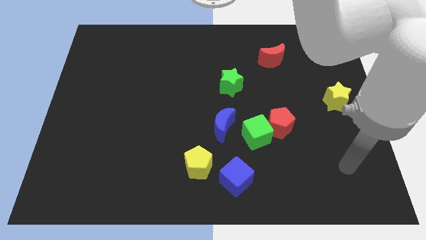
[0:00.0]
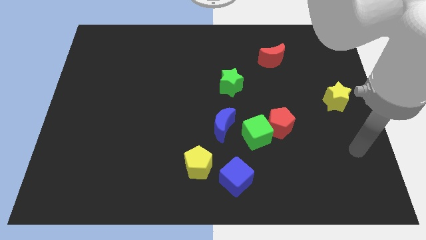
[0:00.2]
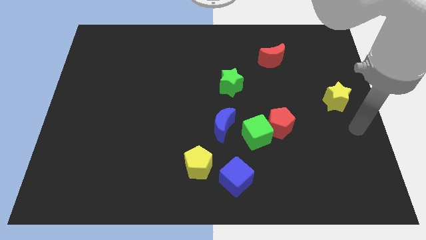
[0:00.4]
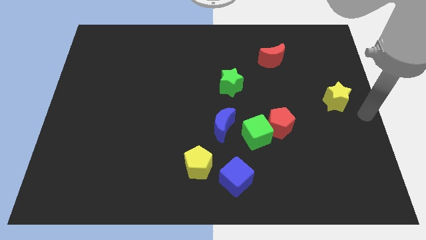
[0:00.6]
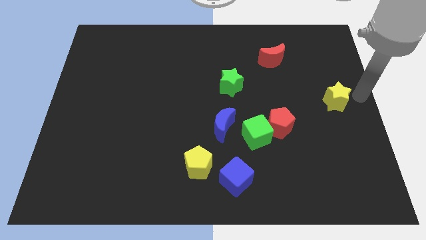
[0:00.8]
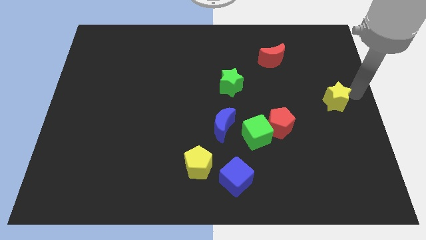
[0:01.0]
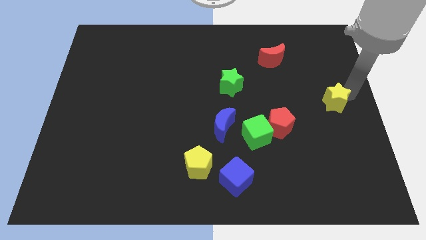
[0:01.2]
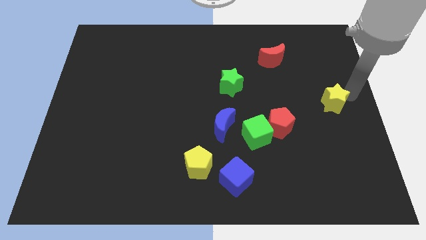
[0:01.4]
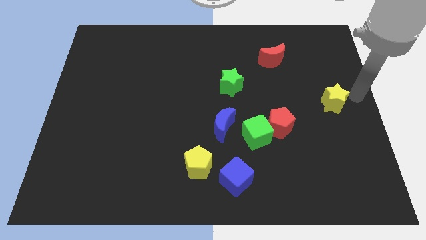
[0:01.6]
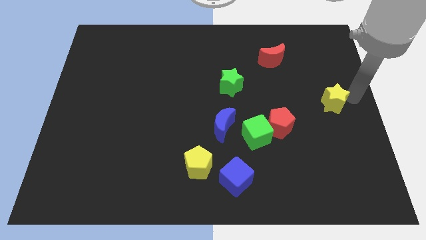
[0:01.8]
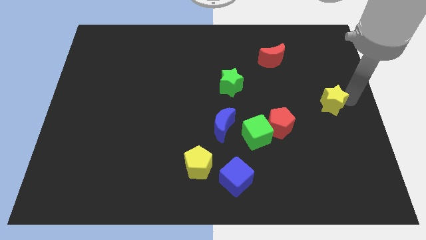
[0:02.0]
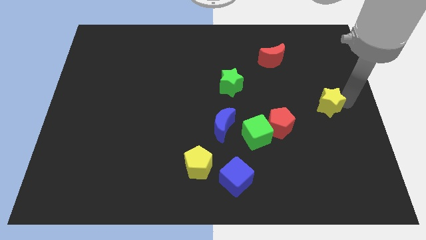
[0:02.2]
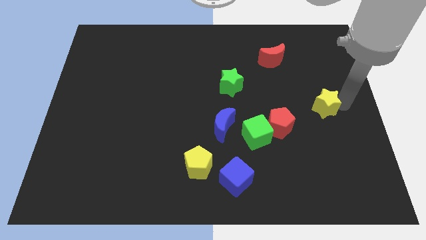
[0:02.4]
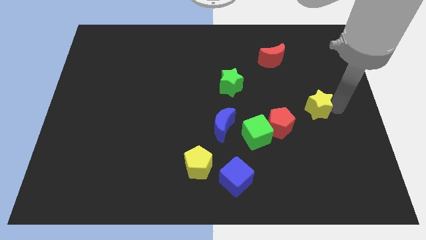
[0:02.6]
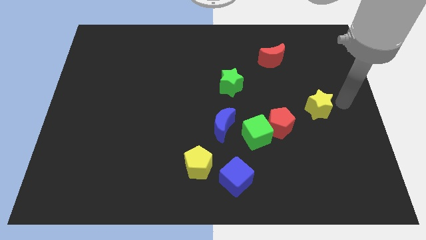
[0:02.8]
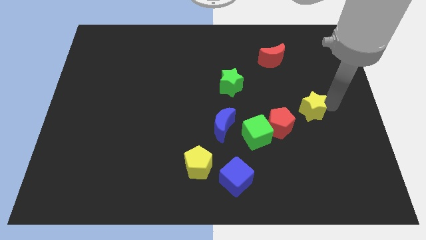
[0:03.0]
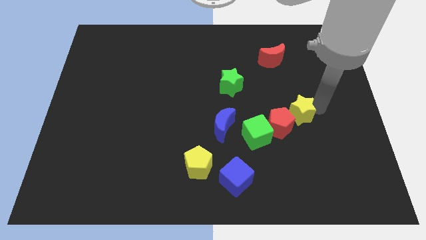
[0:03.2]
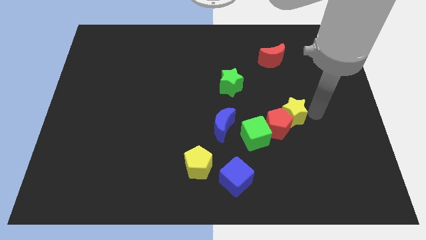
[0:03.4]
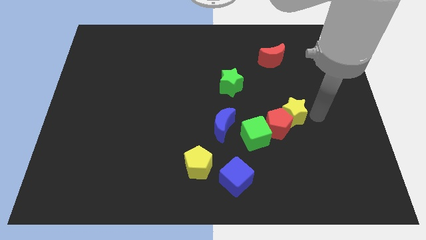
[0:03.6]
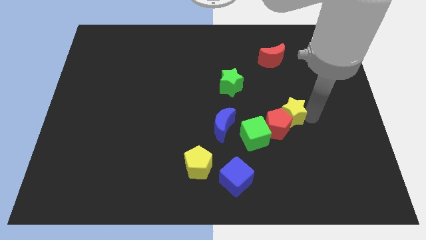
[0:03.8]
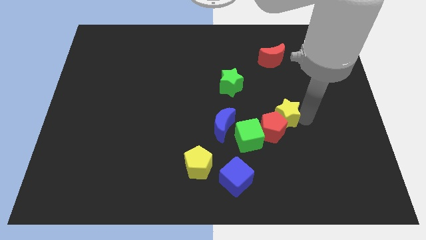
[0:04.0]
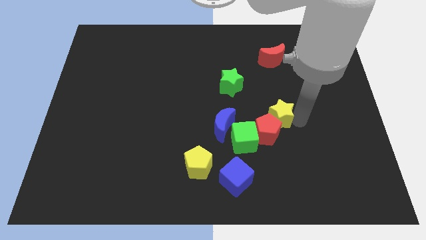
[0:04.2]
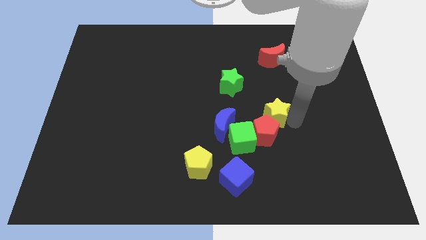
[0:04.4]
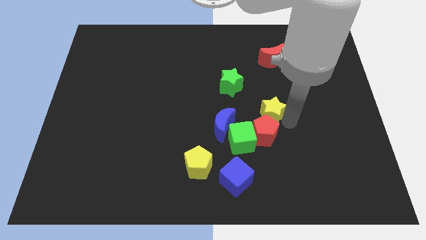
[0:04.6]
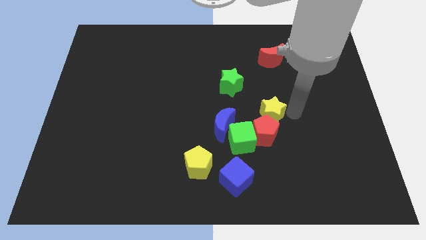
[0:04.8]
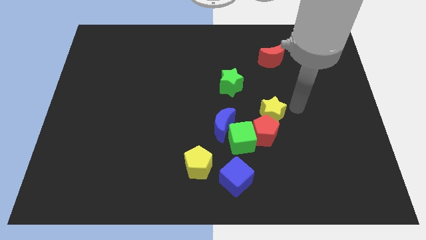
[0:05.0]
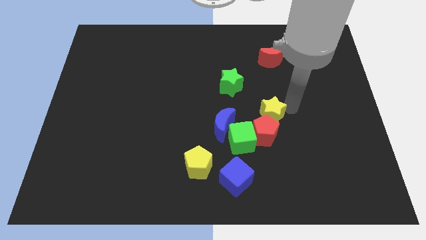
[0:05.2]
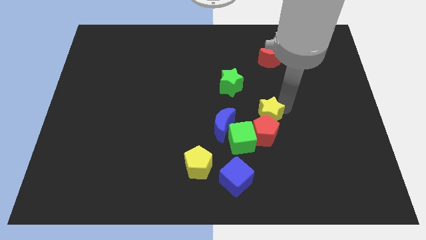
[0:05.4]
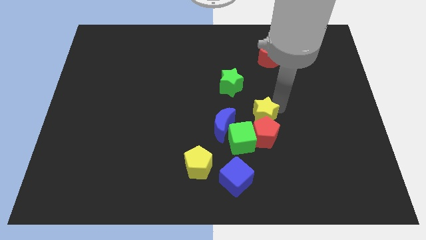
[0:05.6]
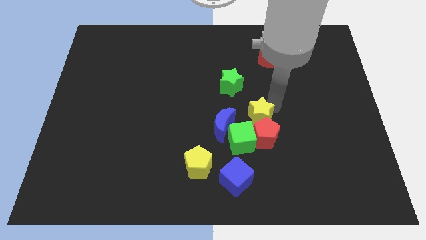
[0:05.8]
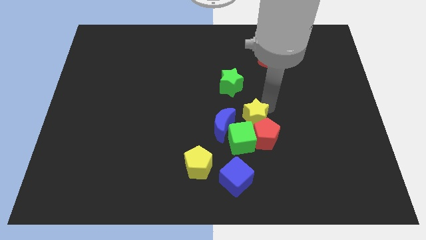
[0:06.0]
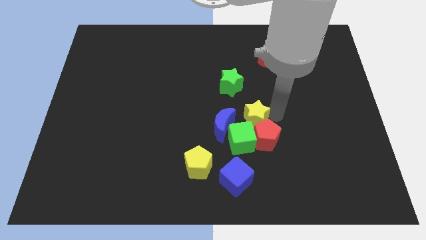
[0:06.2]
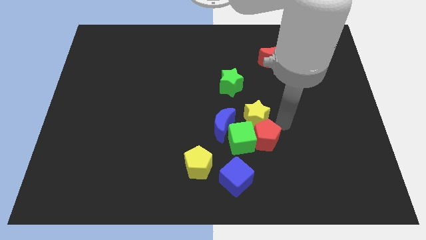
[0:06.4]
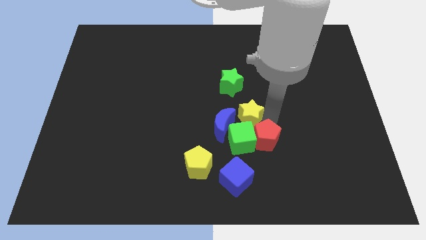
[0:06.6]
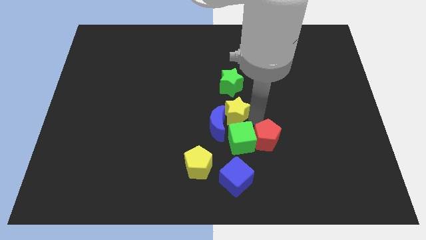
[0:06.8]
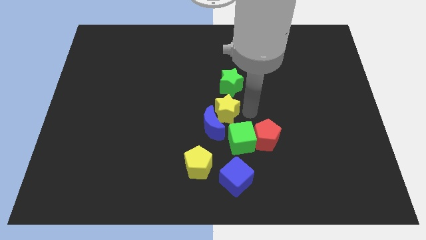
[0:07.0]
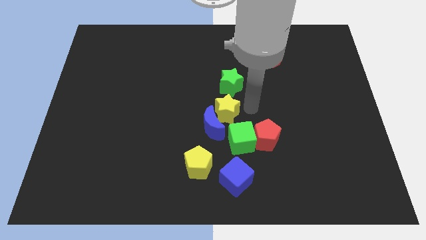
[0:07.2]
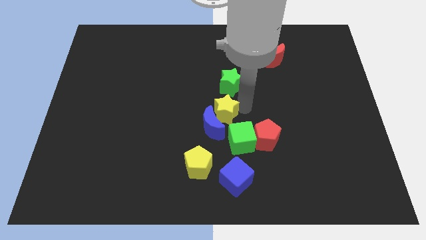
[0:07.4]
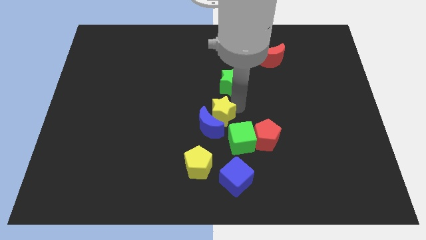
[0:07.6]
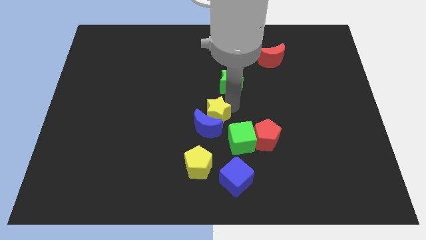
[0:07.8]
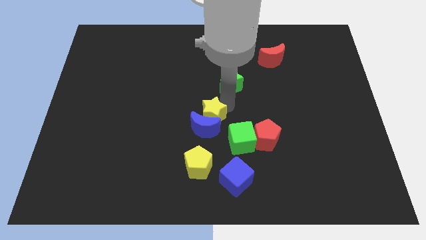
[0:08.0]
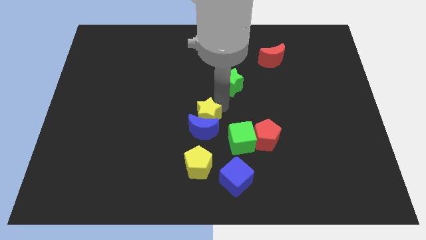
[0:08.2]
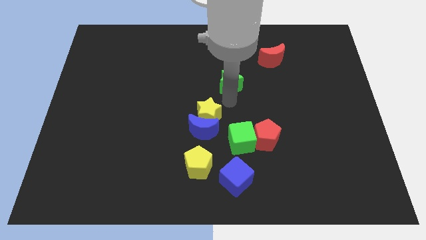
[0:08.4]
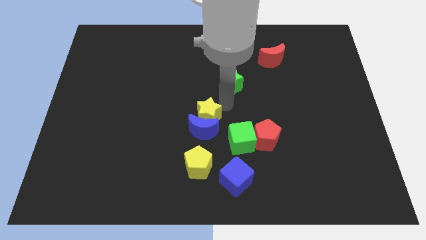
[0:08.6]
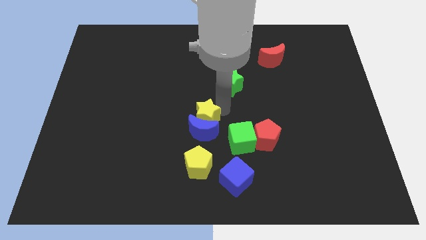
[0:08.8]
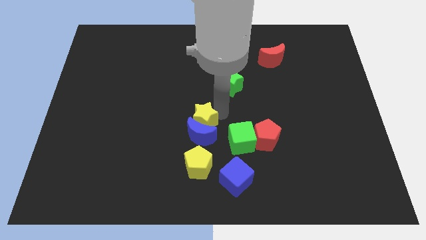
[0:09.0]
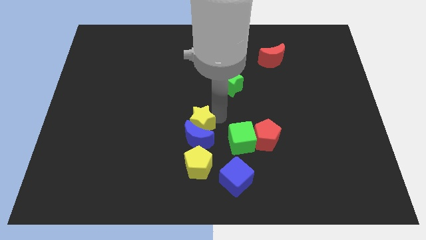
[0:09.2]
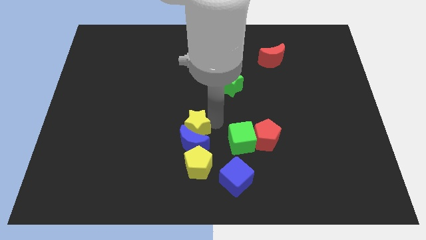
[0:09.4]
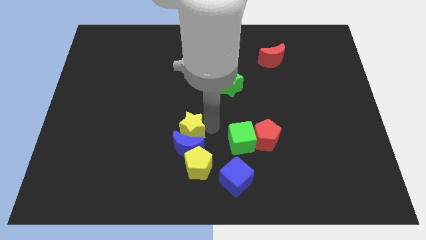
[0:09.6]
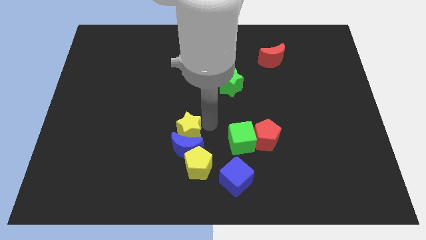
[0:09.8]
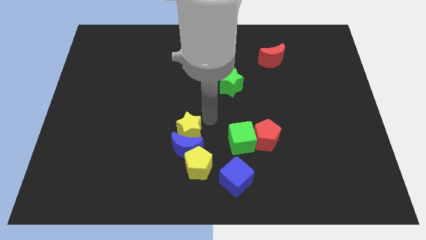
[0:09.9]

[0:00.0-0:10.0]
move the yellow star diagonally up and to the left of the yellow pentagon

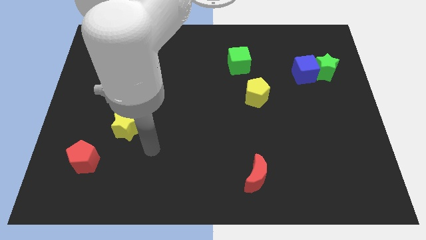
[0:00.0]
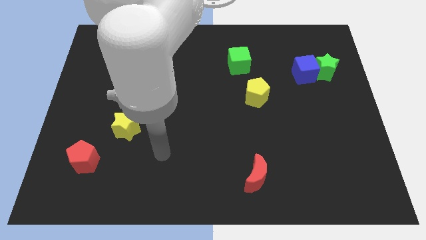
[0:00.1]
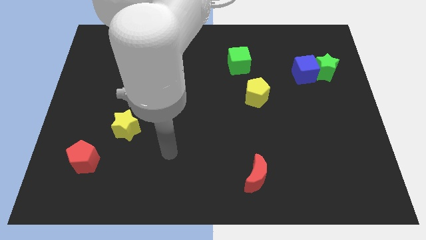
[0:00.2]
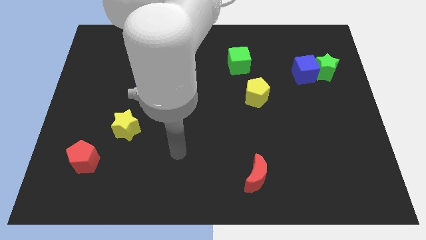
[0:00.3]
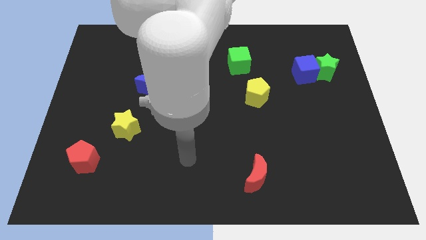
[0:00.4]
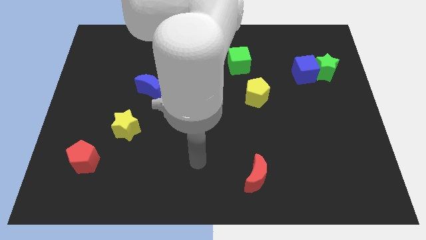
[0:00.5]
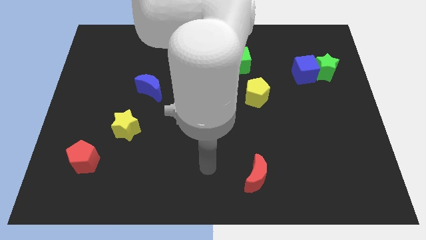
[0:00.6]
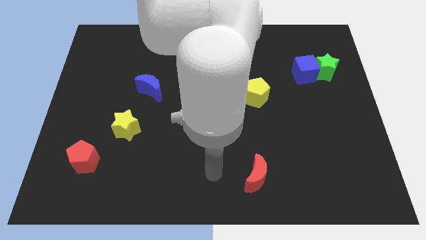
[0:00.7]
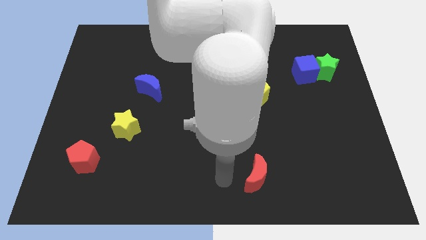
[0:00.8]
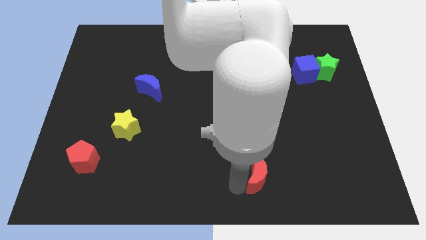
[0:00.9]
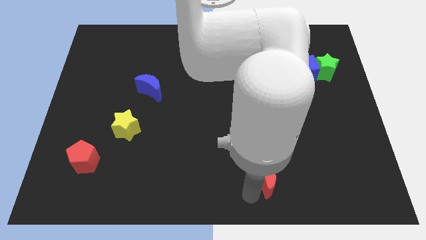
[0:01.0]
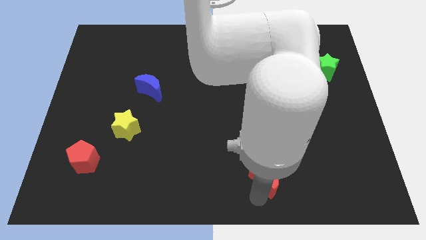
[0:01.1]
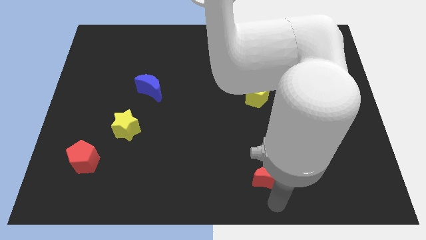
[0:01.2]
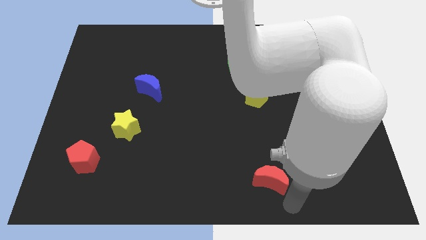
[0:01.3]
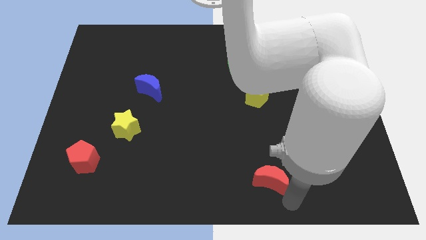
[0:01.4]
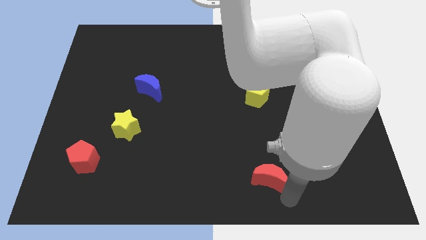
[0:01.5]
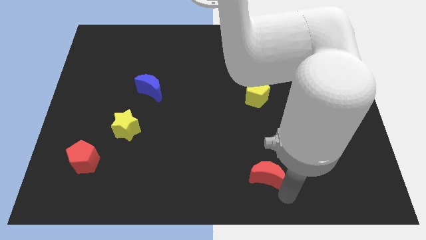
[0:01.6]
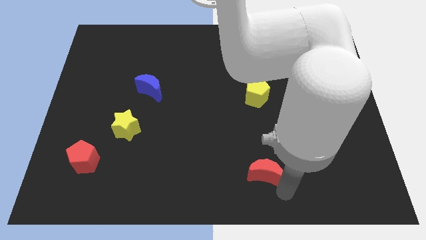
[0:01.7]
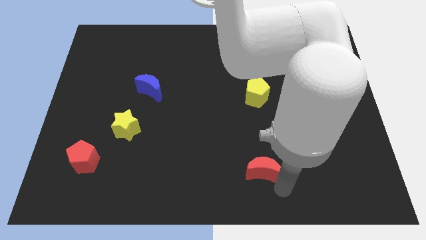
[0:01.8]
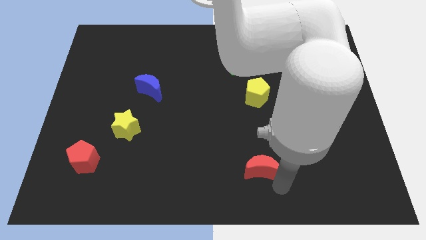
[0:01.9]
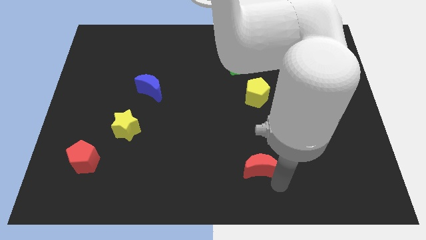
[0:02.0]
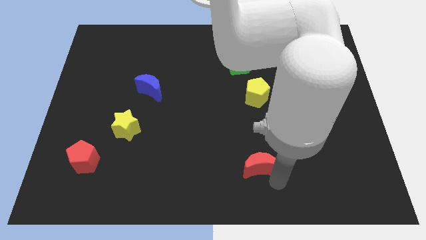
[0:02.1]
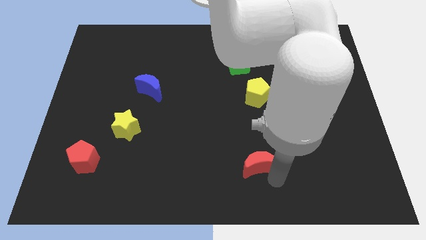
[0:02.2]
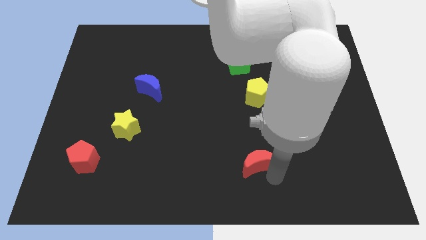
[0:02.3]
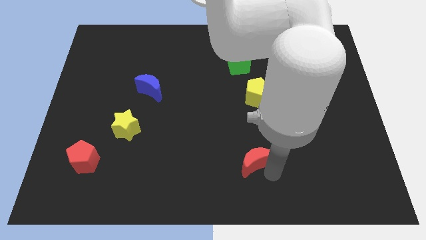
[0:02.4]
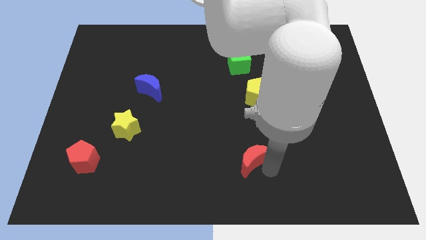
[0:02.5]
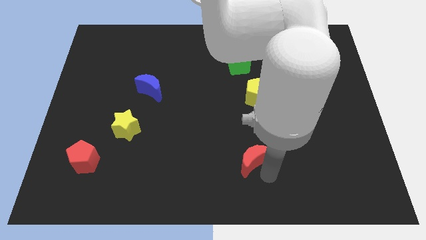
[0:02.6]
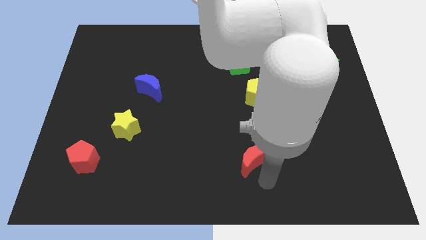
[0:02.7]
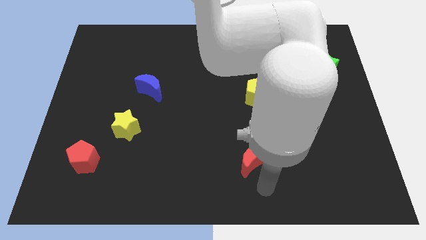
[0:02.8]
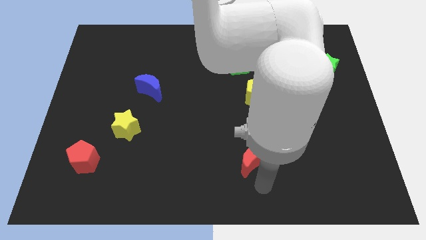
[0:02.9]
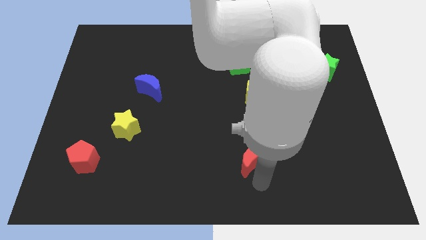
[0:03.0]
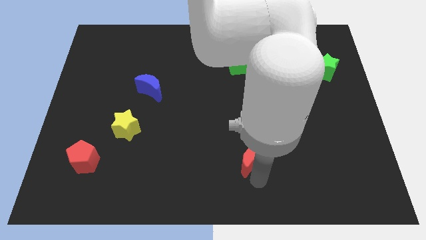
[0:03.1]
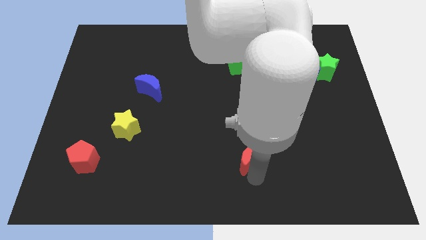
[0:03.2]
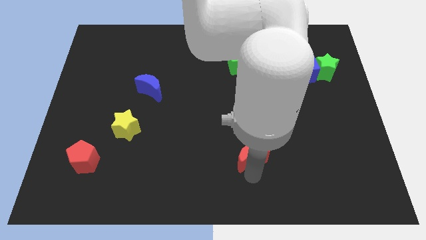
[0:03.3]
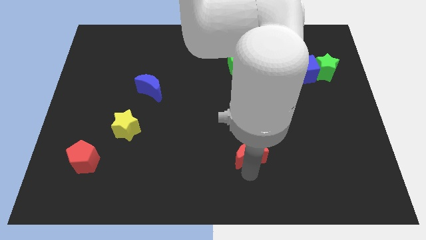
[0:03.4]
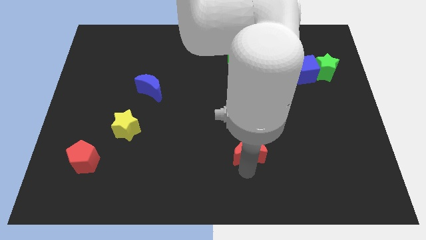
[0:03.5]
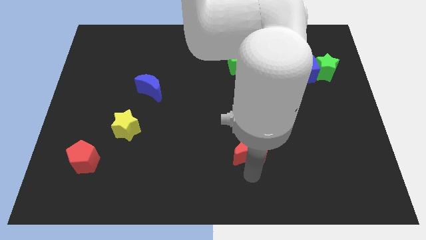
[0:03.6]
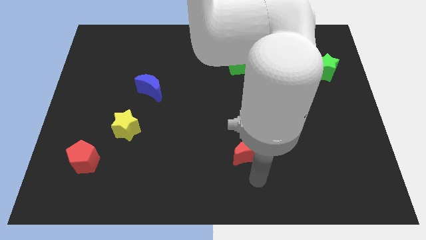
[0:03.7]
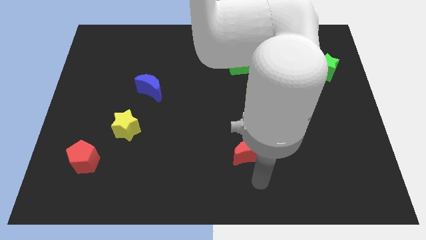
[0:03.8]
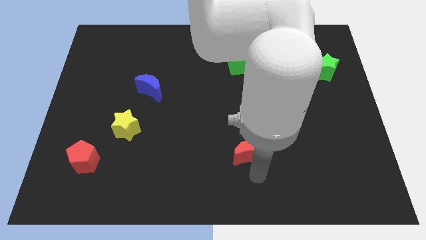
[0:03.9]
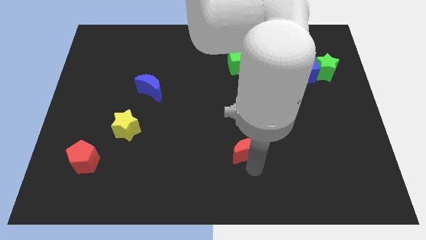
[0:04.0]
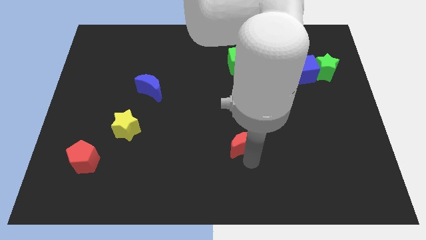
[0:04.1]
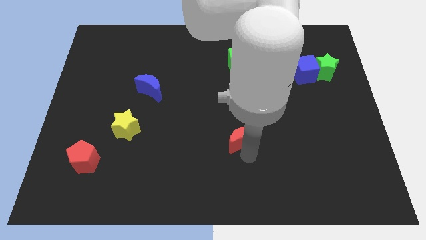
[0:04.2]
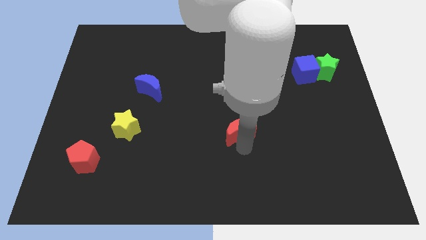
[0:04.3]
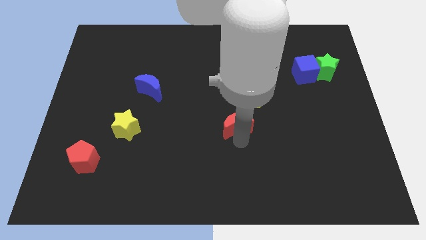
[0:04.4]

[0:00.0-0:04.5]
slide the red moon to the bottom left of the yellow pentagon
